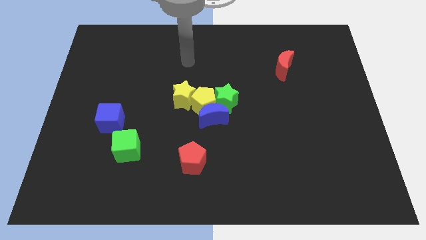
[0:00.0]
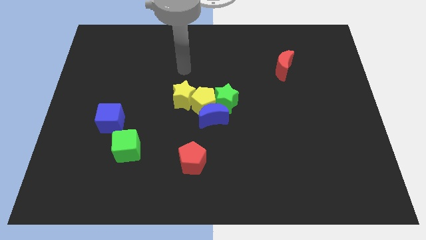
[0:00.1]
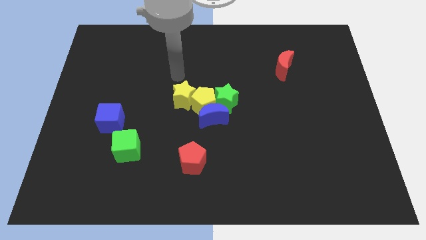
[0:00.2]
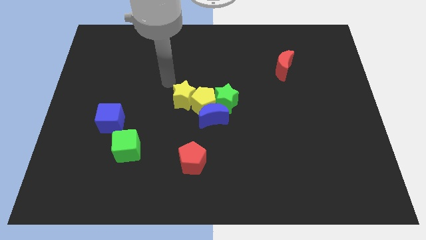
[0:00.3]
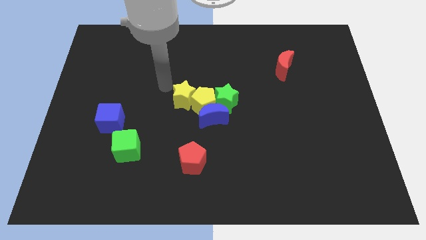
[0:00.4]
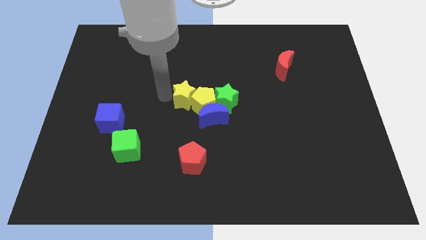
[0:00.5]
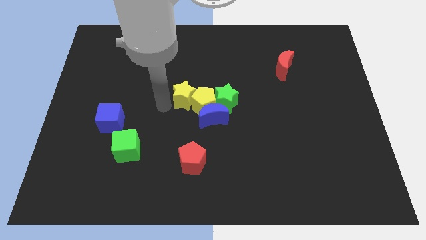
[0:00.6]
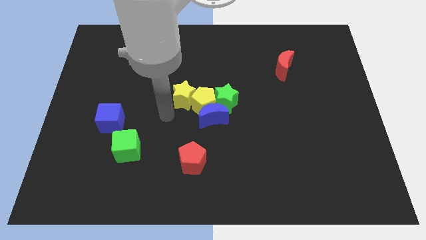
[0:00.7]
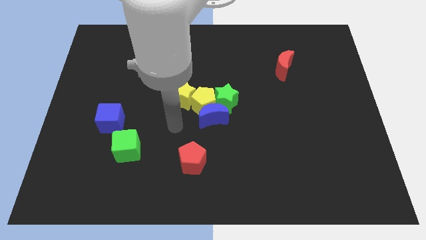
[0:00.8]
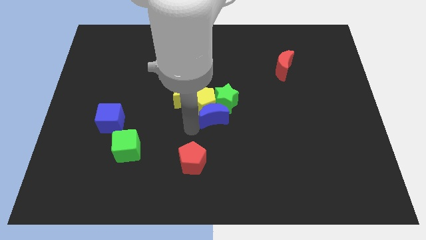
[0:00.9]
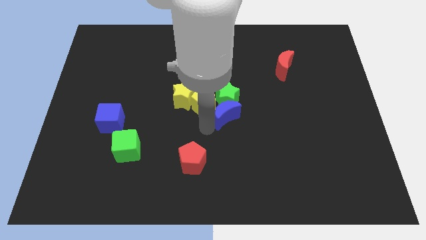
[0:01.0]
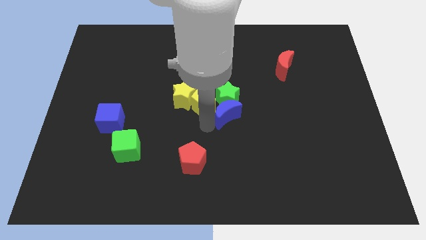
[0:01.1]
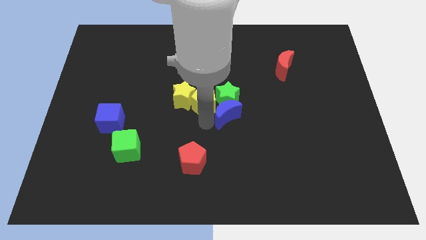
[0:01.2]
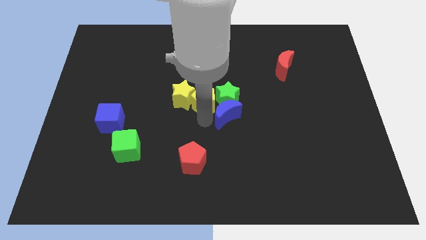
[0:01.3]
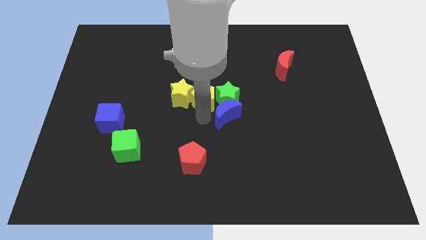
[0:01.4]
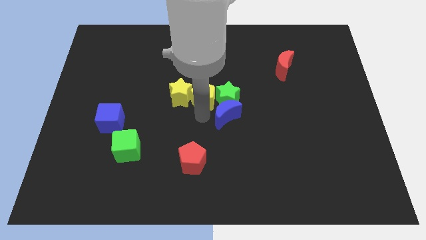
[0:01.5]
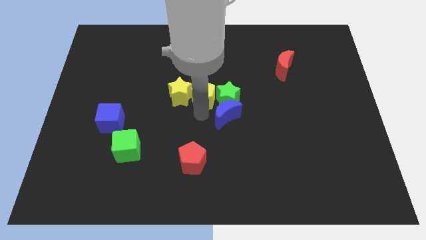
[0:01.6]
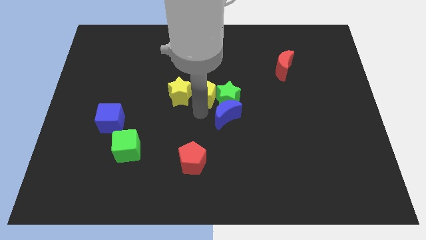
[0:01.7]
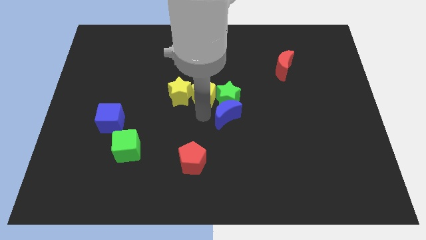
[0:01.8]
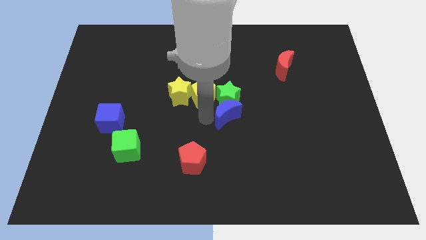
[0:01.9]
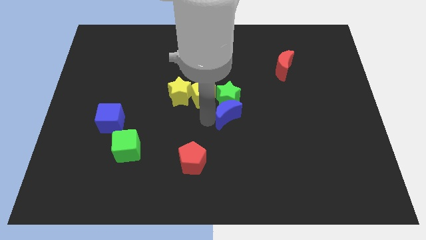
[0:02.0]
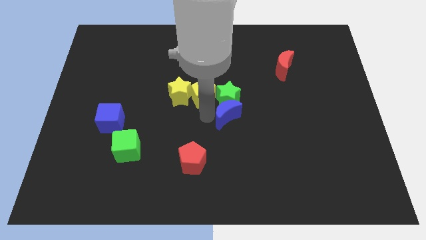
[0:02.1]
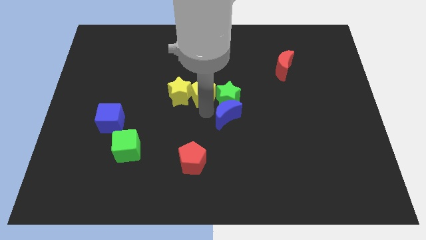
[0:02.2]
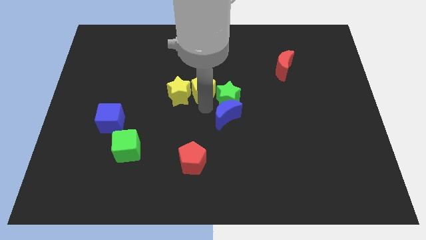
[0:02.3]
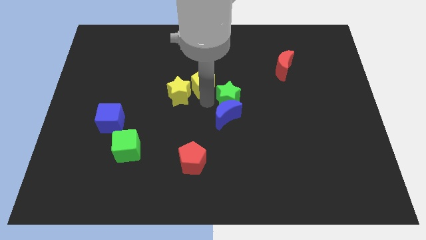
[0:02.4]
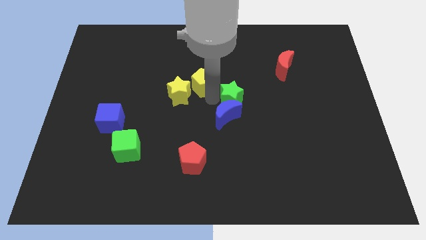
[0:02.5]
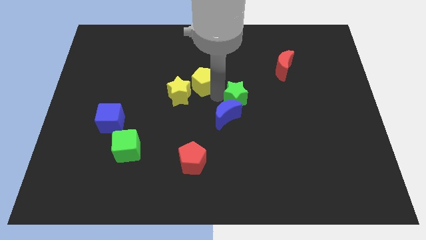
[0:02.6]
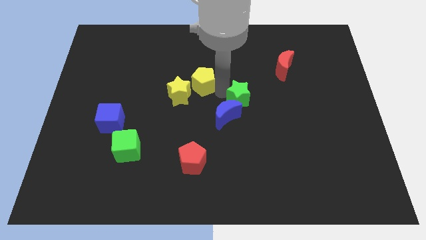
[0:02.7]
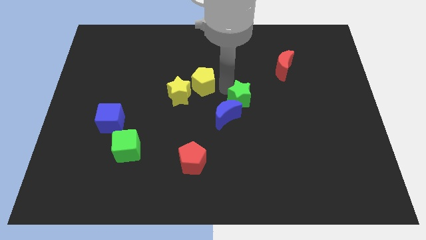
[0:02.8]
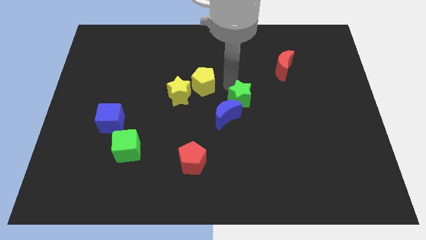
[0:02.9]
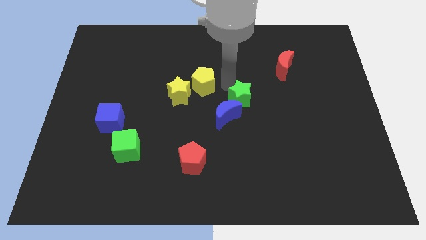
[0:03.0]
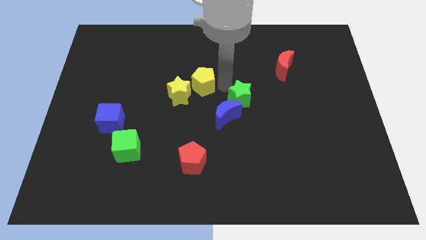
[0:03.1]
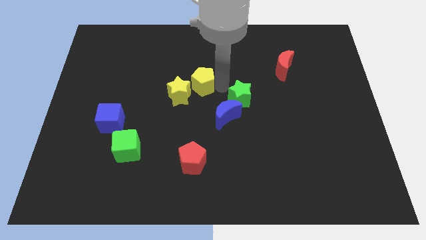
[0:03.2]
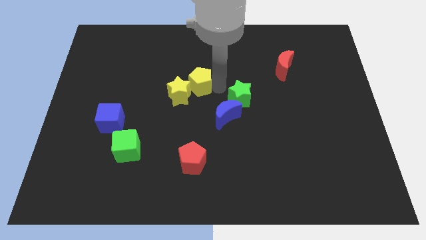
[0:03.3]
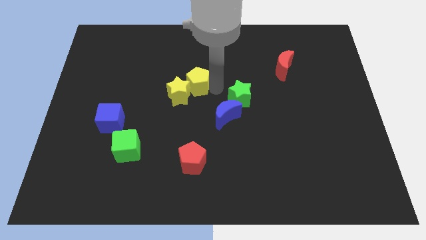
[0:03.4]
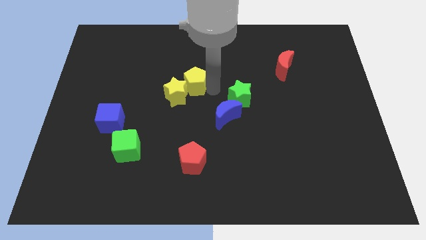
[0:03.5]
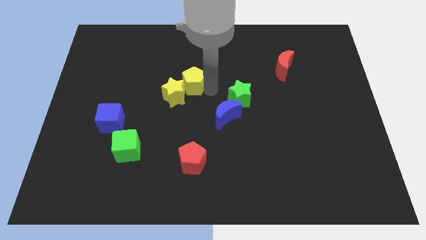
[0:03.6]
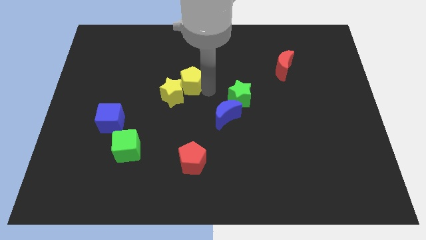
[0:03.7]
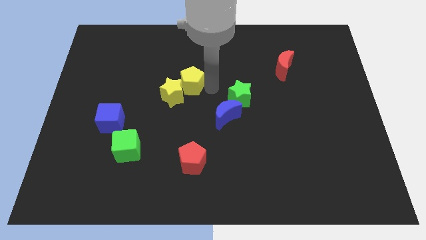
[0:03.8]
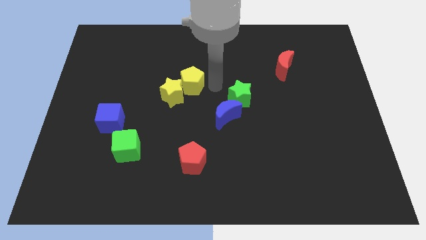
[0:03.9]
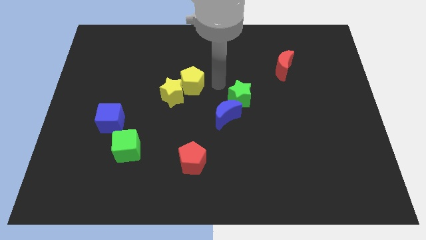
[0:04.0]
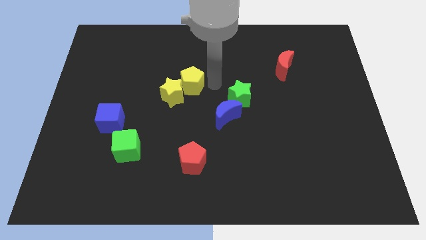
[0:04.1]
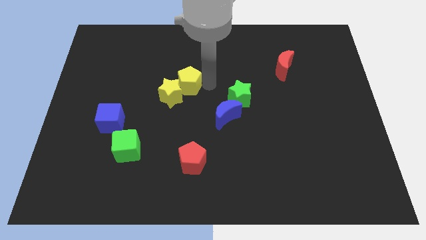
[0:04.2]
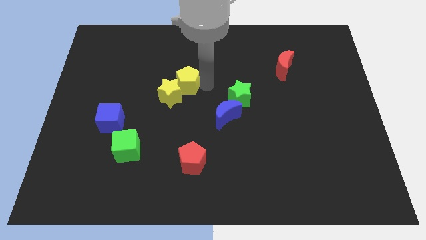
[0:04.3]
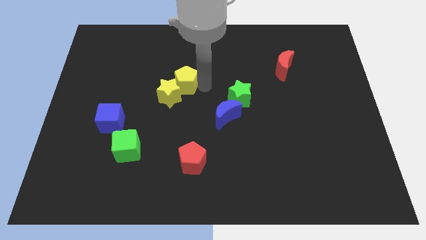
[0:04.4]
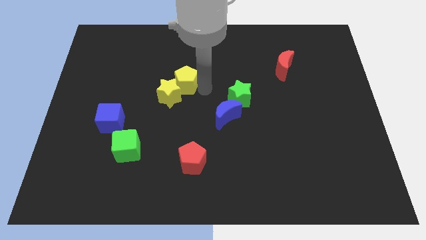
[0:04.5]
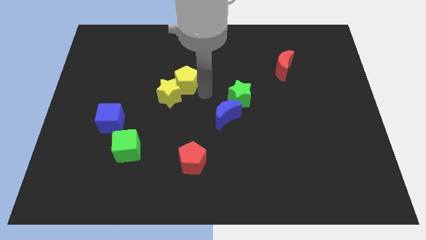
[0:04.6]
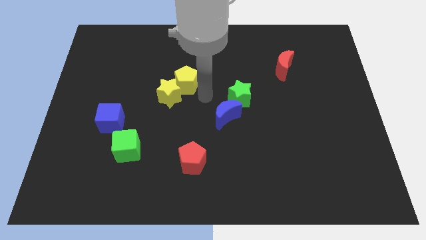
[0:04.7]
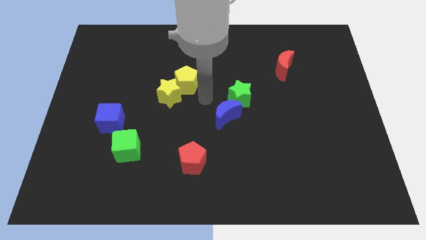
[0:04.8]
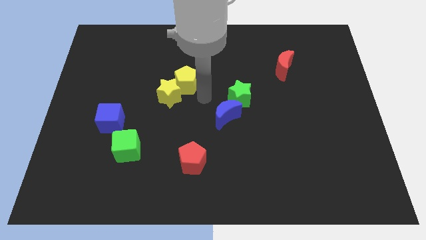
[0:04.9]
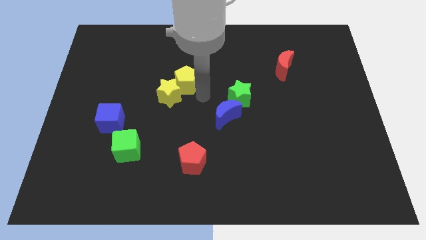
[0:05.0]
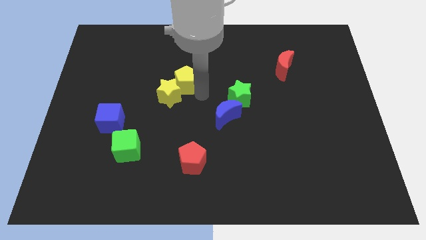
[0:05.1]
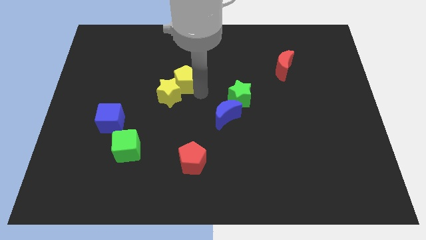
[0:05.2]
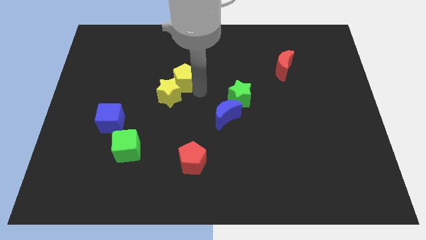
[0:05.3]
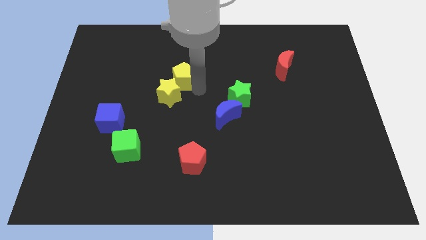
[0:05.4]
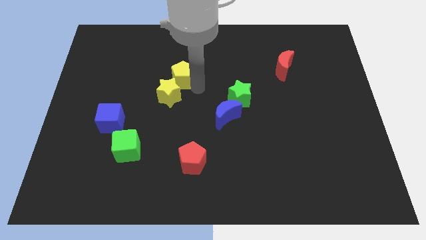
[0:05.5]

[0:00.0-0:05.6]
pull the yellow pentagon apart from the blue moon, green star, and yellow star

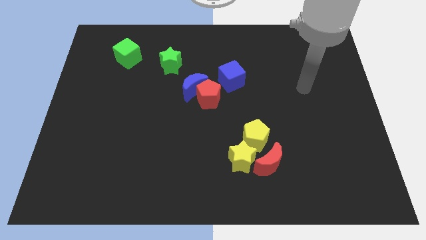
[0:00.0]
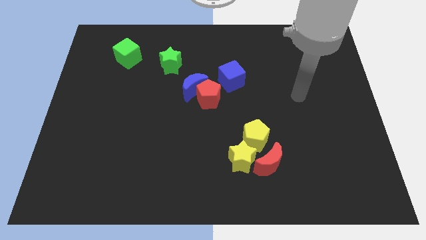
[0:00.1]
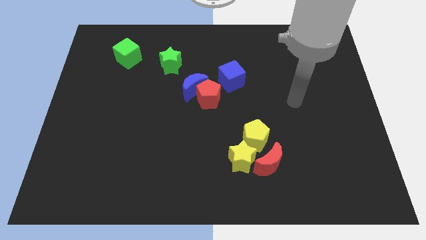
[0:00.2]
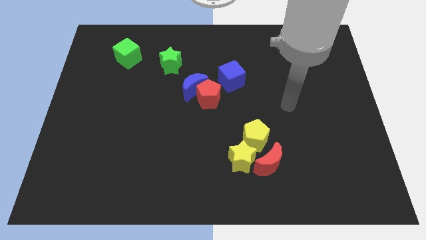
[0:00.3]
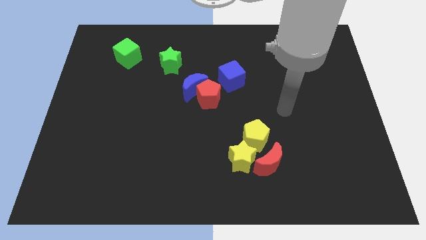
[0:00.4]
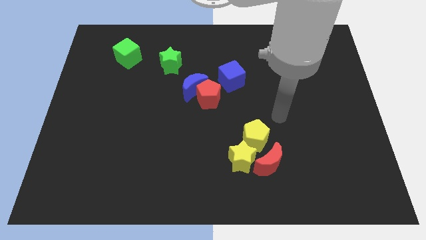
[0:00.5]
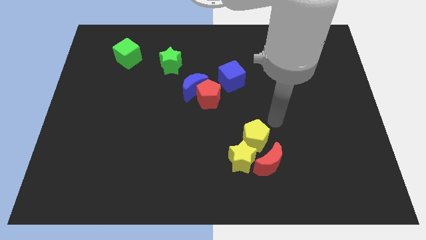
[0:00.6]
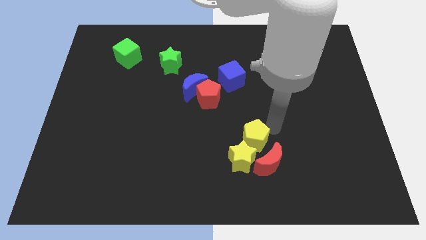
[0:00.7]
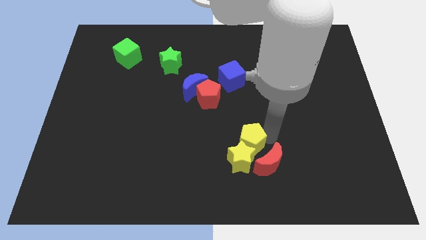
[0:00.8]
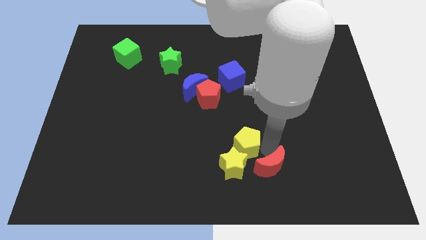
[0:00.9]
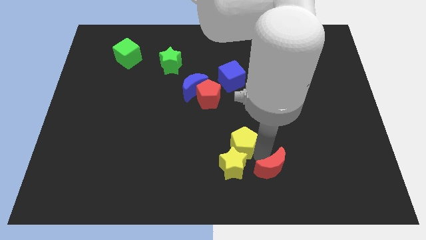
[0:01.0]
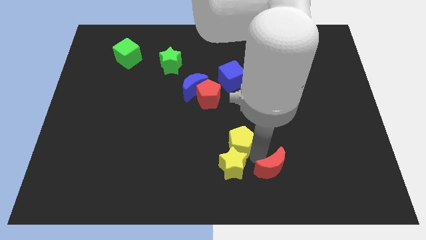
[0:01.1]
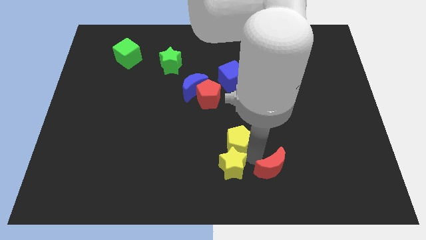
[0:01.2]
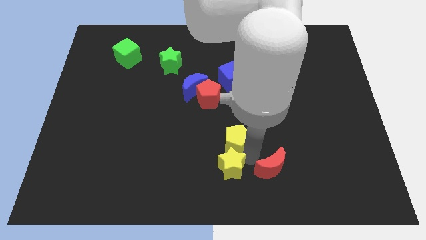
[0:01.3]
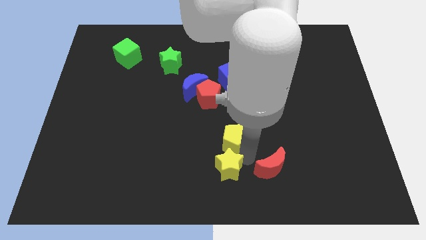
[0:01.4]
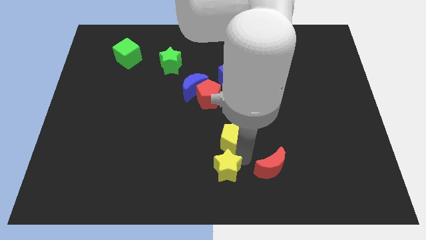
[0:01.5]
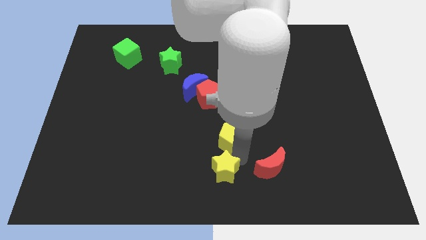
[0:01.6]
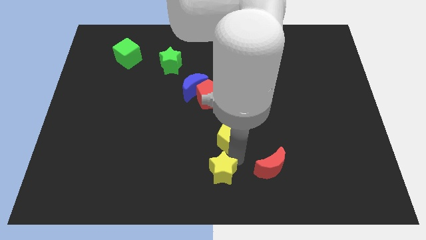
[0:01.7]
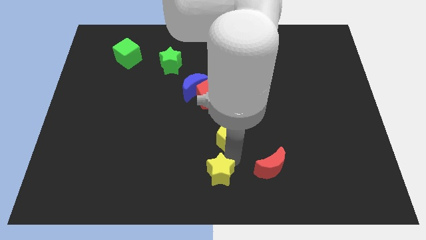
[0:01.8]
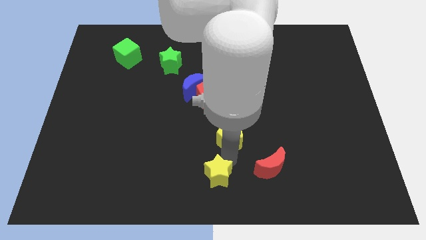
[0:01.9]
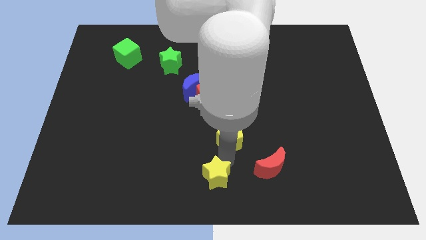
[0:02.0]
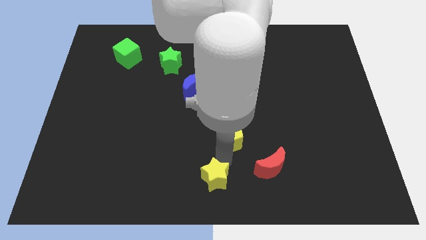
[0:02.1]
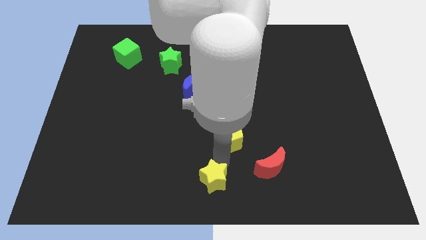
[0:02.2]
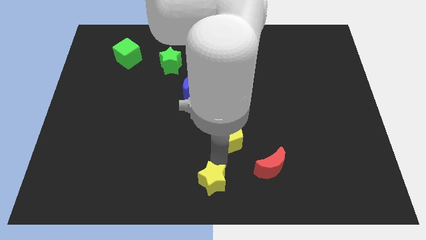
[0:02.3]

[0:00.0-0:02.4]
pull the yellow star apart from the yellow pentagon and red moon

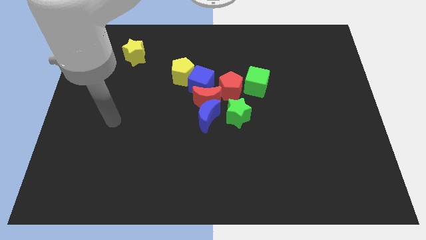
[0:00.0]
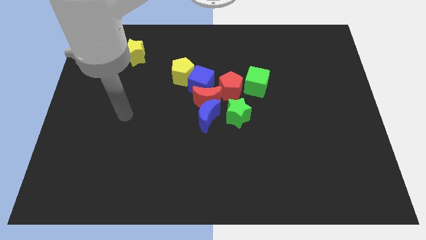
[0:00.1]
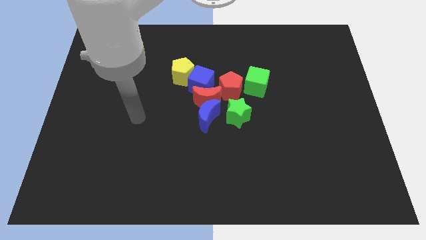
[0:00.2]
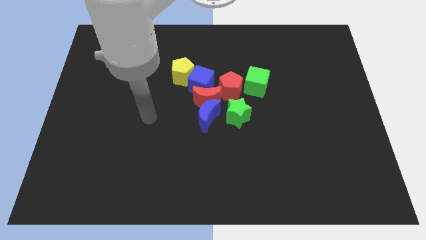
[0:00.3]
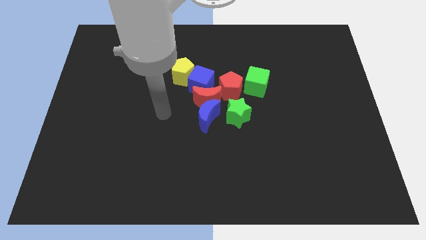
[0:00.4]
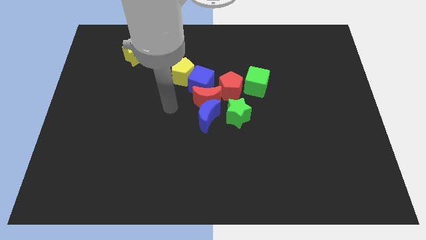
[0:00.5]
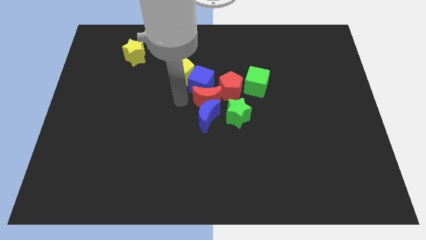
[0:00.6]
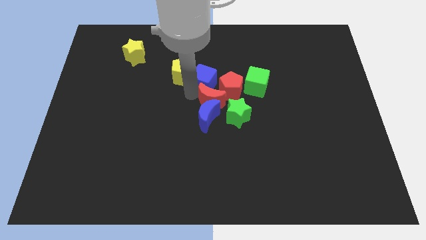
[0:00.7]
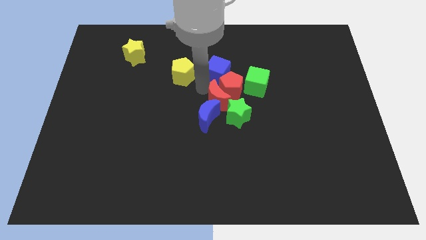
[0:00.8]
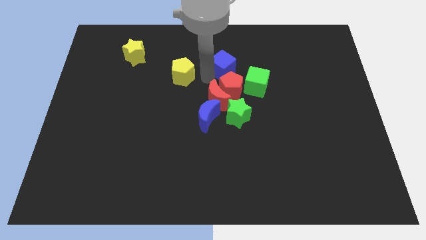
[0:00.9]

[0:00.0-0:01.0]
move the yellow pentagon away from the blue cube

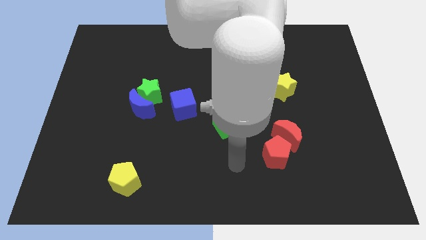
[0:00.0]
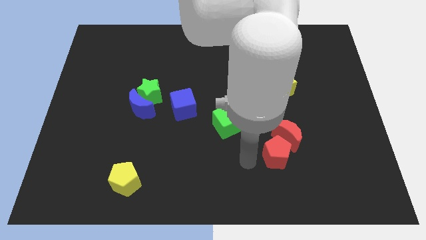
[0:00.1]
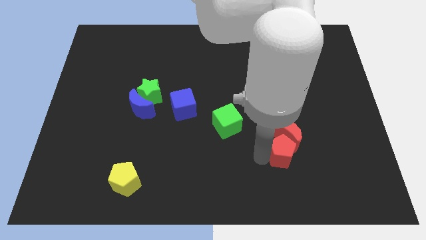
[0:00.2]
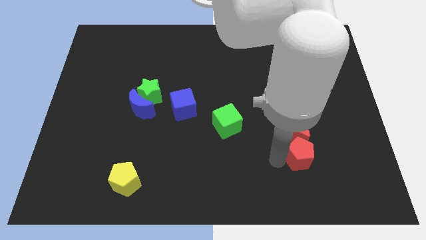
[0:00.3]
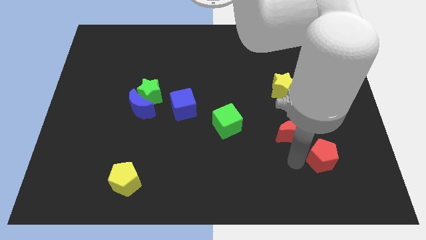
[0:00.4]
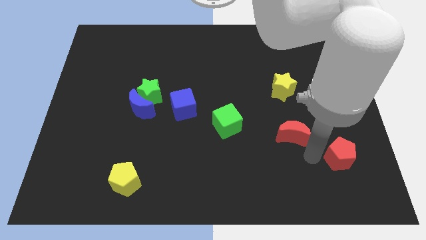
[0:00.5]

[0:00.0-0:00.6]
move the red moon away from the red pentagon
